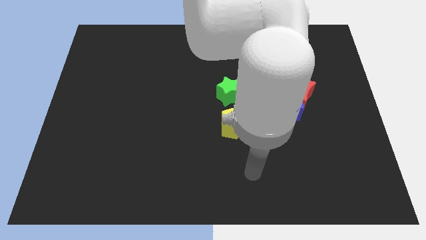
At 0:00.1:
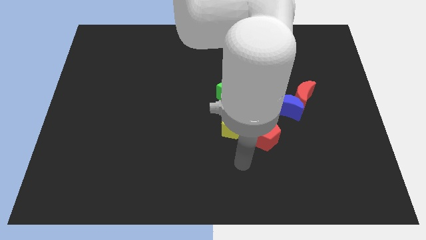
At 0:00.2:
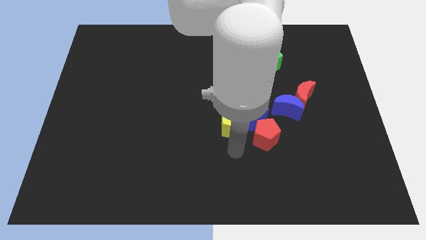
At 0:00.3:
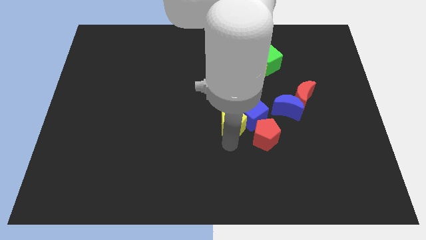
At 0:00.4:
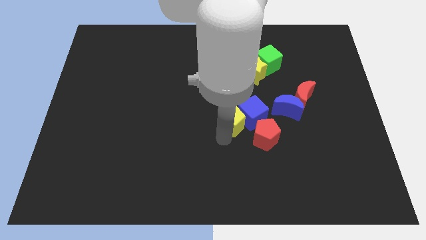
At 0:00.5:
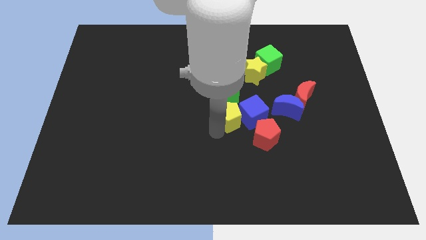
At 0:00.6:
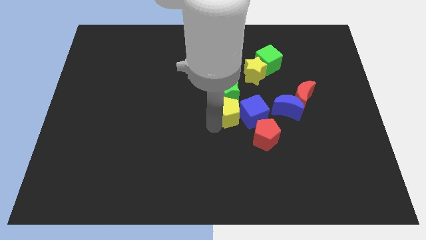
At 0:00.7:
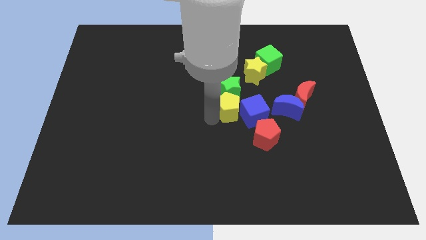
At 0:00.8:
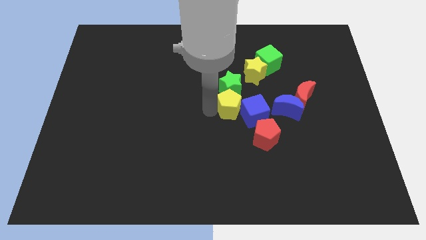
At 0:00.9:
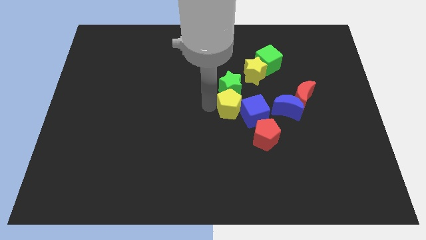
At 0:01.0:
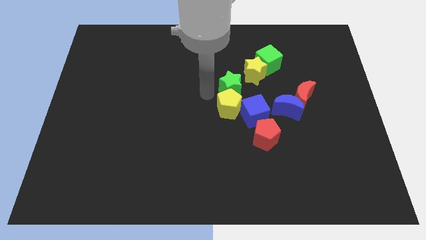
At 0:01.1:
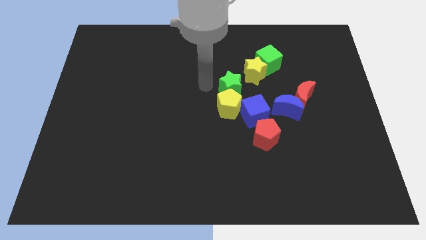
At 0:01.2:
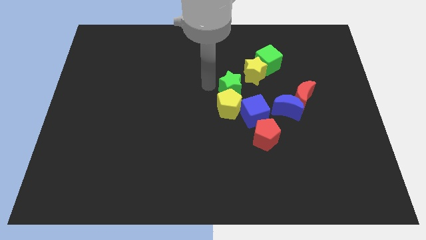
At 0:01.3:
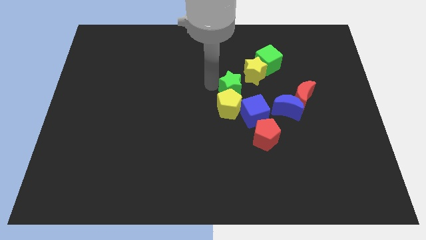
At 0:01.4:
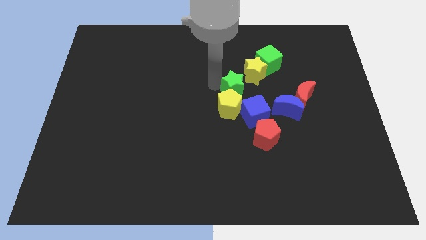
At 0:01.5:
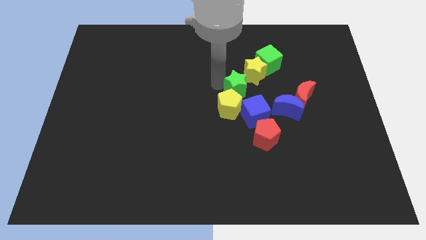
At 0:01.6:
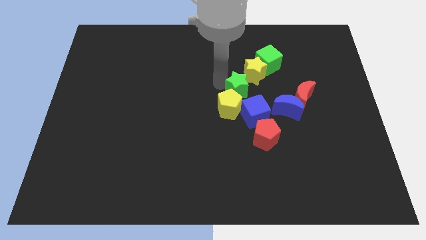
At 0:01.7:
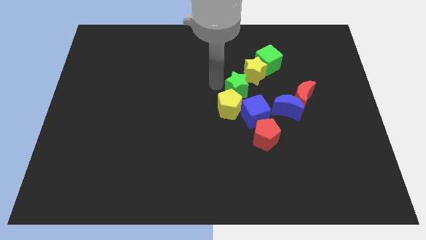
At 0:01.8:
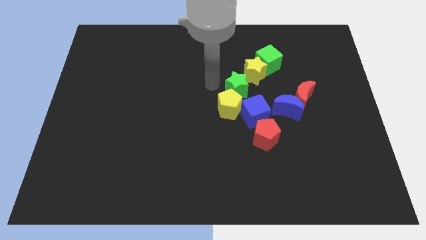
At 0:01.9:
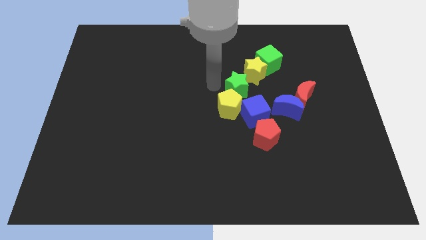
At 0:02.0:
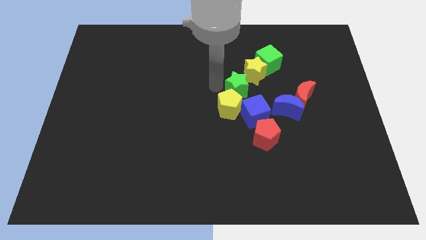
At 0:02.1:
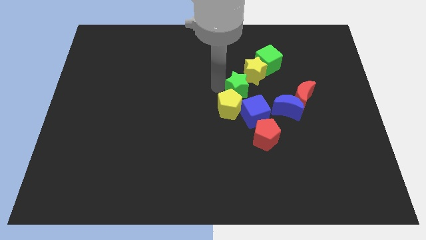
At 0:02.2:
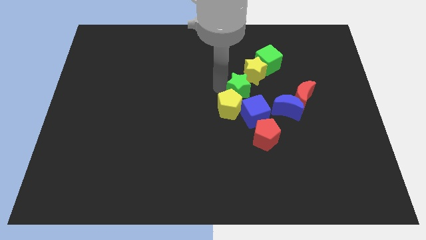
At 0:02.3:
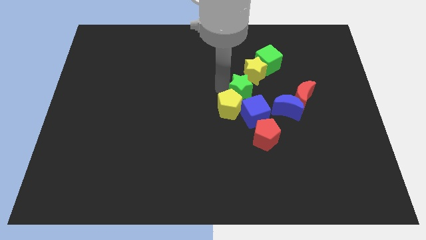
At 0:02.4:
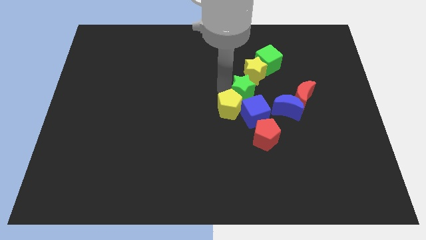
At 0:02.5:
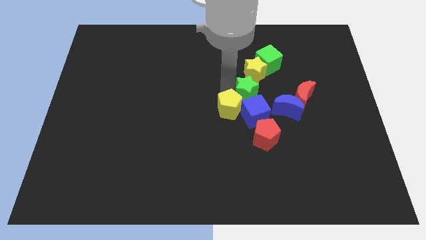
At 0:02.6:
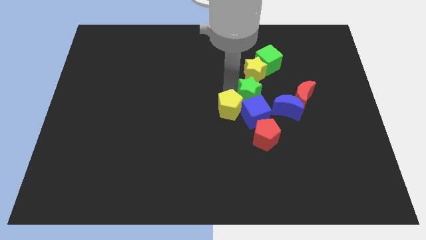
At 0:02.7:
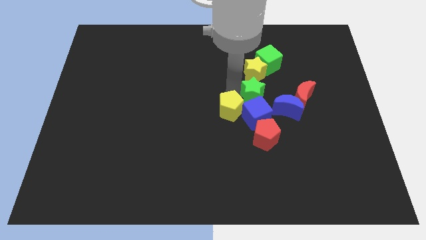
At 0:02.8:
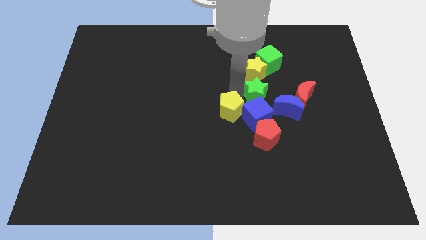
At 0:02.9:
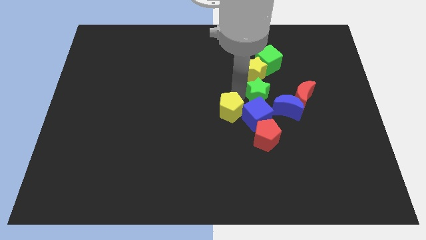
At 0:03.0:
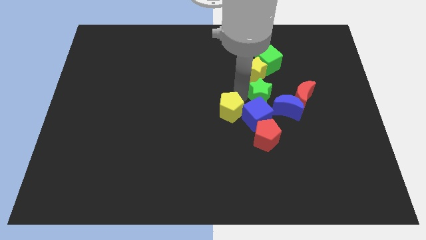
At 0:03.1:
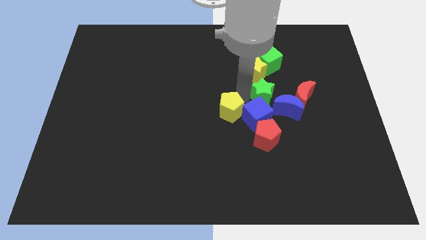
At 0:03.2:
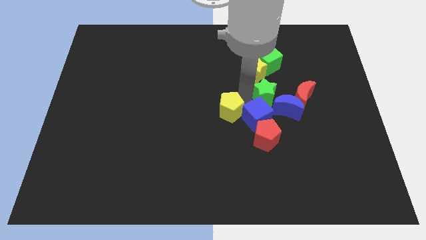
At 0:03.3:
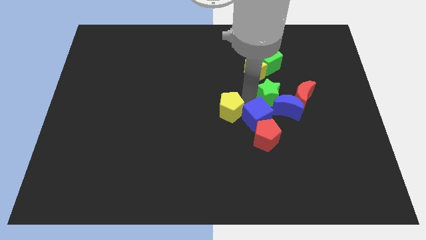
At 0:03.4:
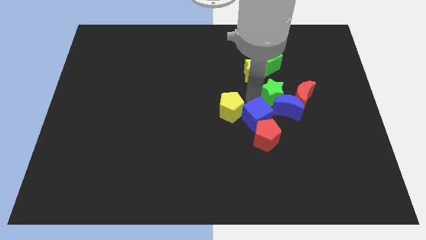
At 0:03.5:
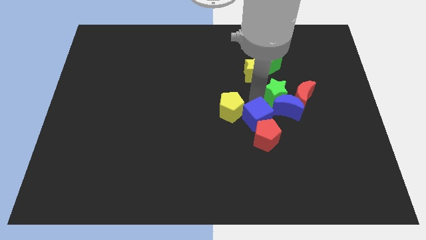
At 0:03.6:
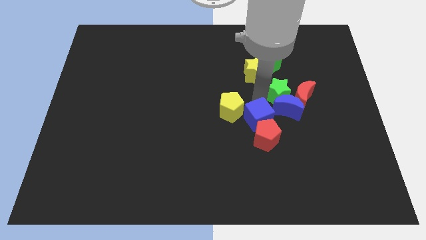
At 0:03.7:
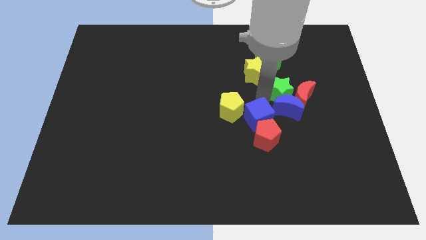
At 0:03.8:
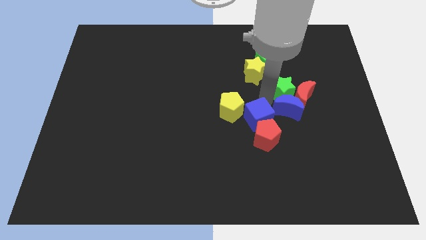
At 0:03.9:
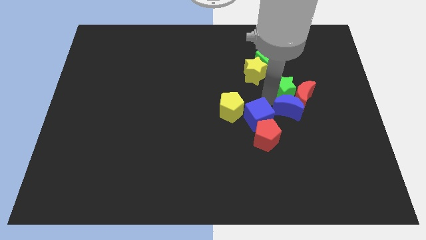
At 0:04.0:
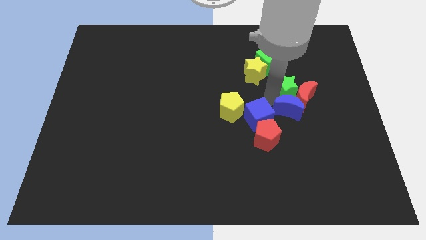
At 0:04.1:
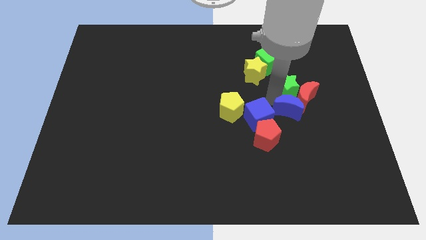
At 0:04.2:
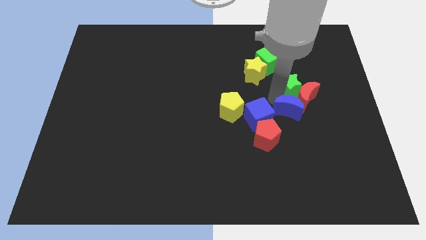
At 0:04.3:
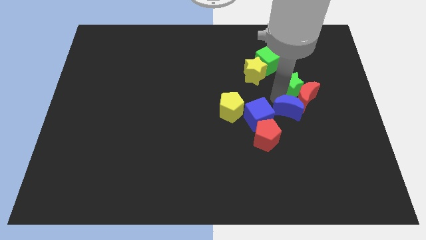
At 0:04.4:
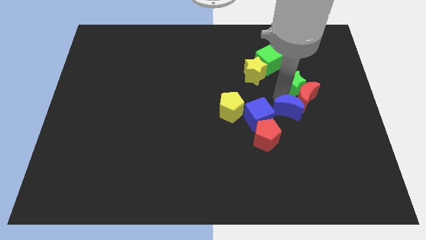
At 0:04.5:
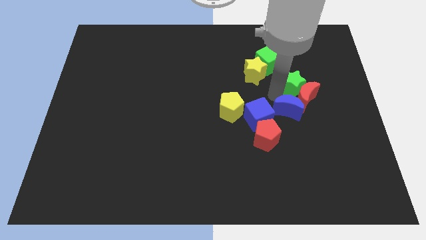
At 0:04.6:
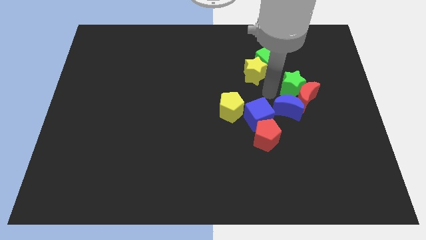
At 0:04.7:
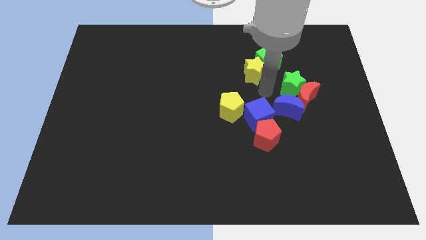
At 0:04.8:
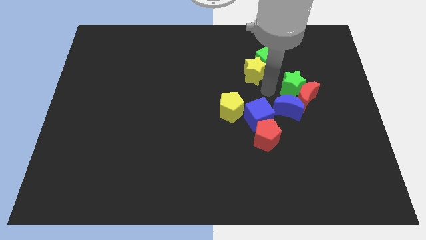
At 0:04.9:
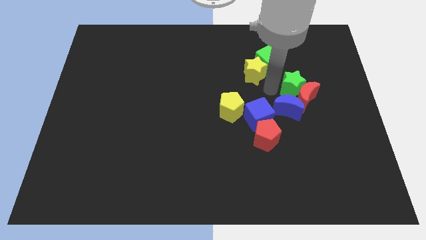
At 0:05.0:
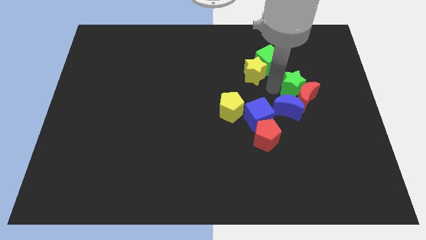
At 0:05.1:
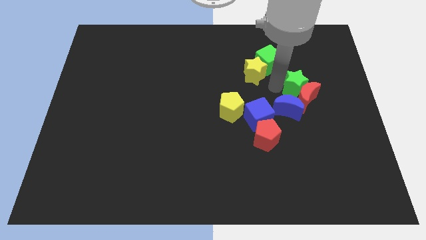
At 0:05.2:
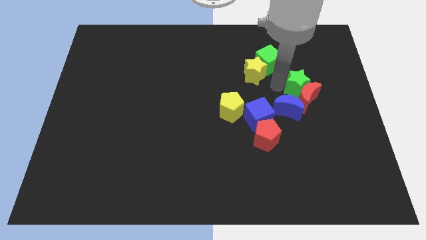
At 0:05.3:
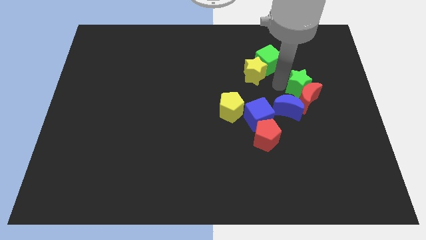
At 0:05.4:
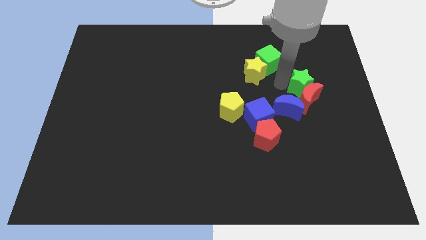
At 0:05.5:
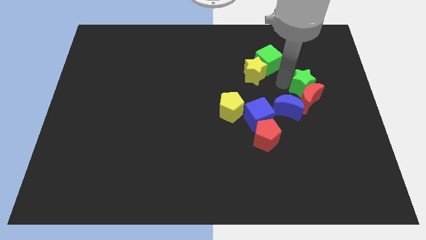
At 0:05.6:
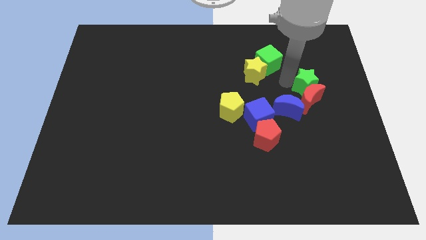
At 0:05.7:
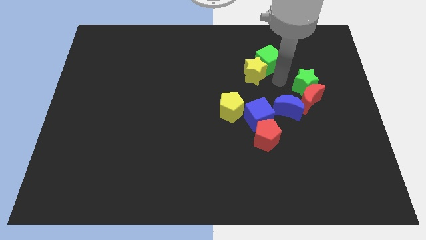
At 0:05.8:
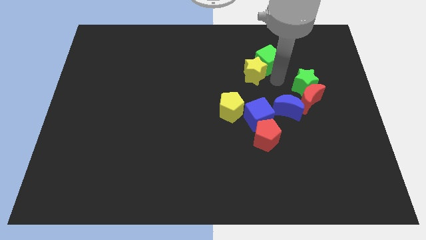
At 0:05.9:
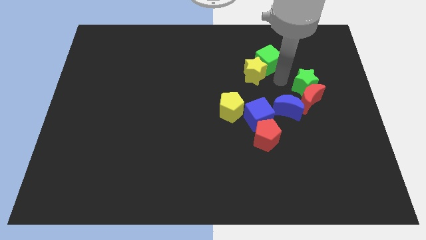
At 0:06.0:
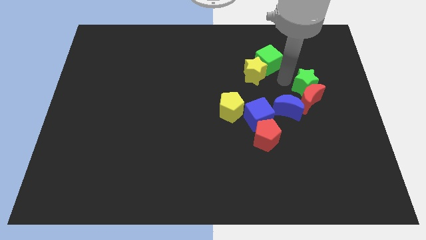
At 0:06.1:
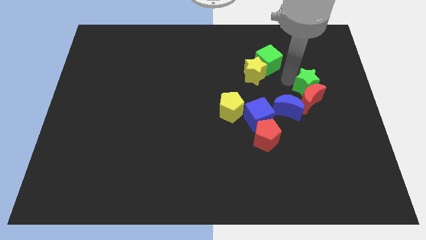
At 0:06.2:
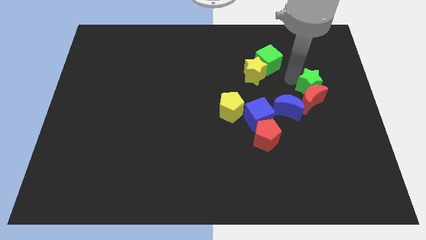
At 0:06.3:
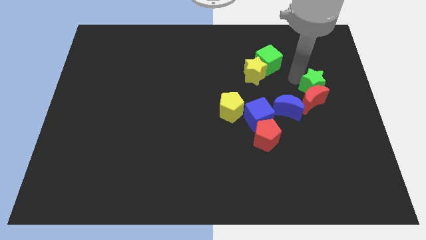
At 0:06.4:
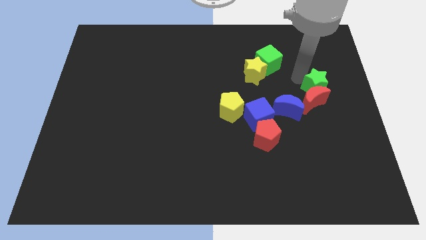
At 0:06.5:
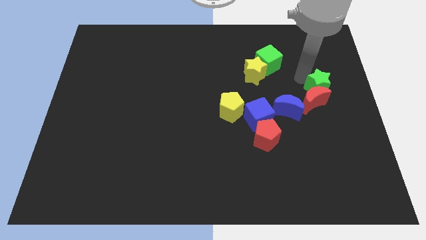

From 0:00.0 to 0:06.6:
move the green star to the right side

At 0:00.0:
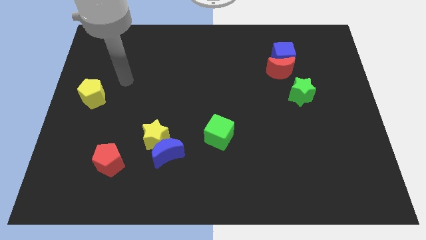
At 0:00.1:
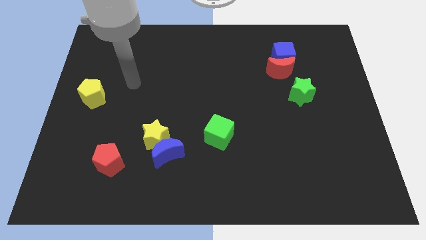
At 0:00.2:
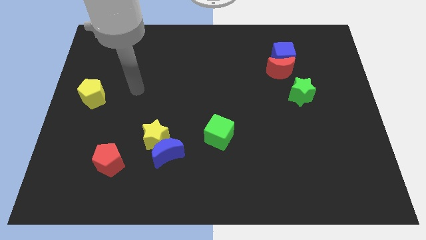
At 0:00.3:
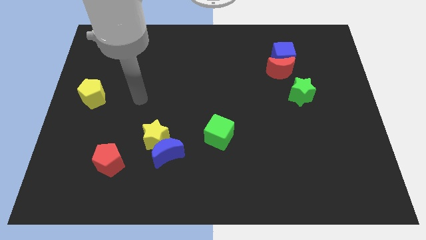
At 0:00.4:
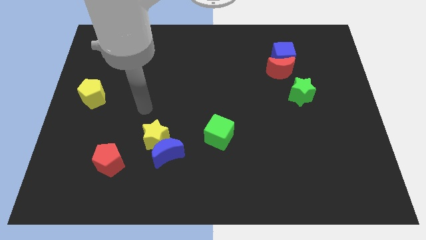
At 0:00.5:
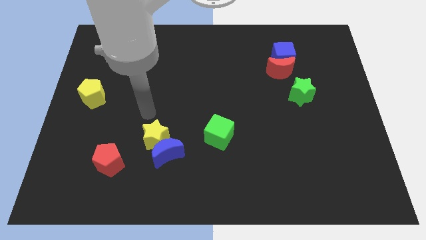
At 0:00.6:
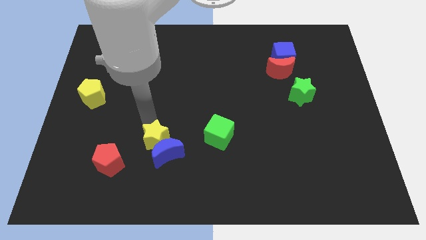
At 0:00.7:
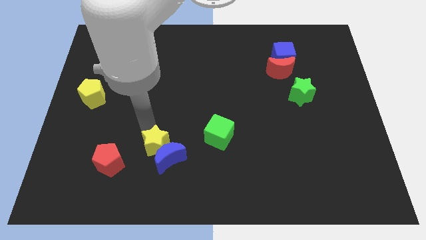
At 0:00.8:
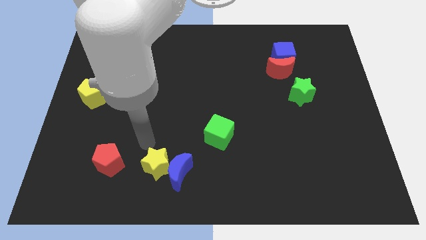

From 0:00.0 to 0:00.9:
move the blue moon to the bottom
